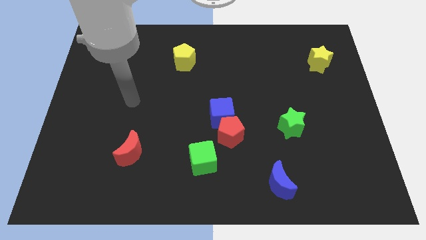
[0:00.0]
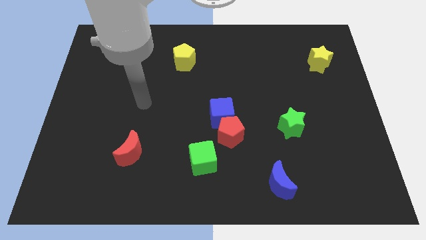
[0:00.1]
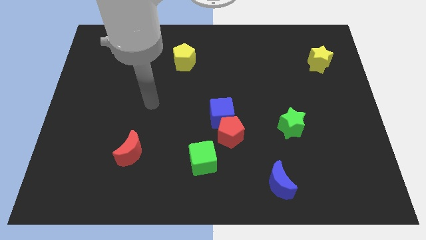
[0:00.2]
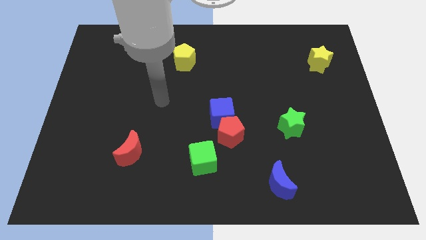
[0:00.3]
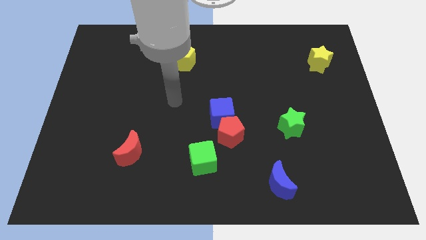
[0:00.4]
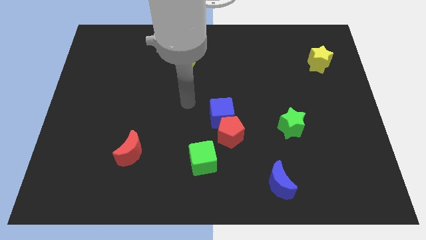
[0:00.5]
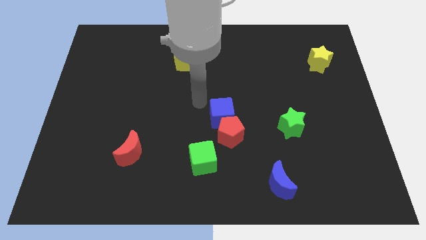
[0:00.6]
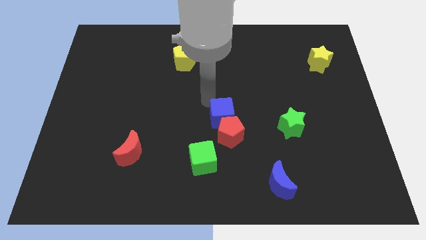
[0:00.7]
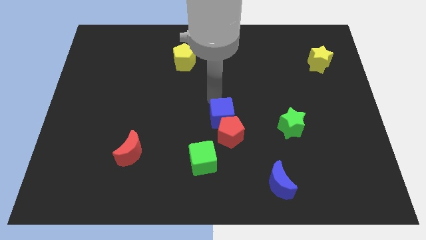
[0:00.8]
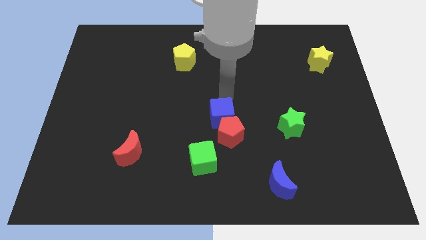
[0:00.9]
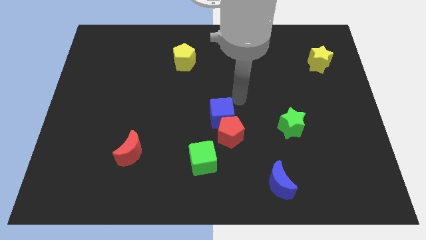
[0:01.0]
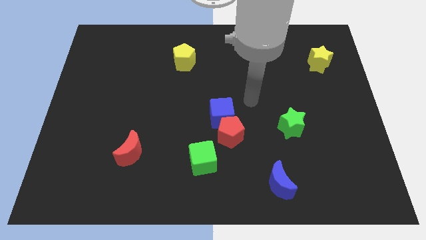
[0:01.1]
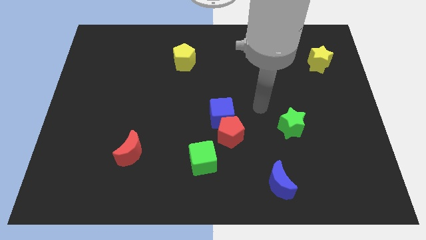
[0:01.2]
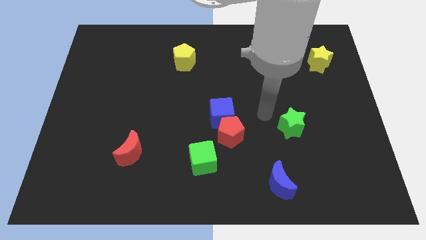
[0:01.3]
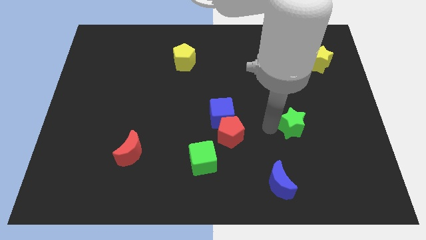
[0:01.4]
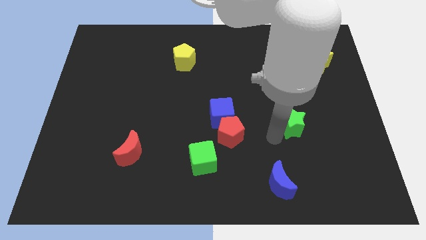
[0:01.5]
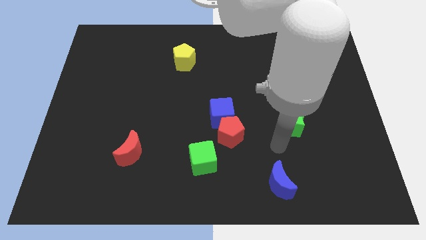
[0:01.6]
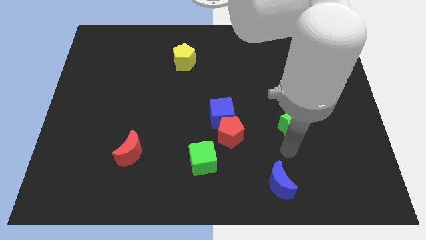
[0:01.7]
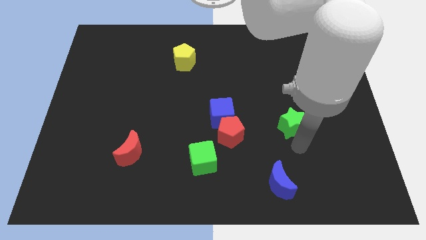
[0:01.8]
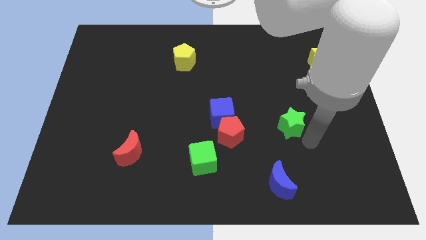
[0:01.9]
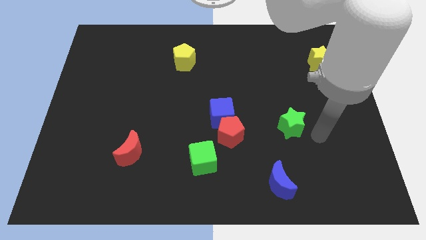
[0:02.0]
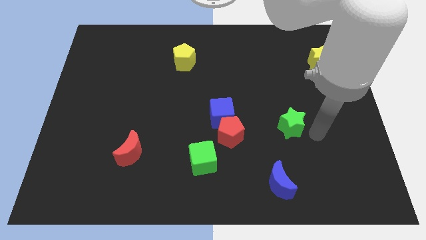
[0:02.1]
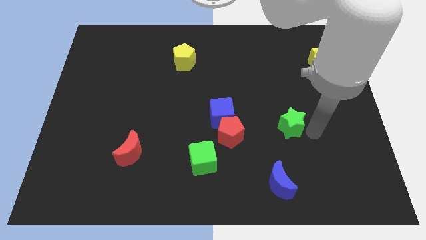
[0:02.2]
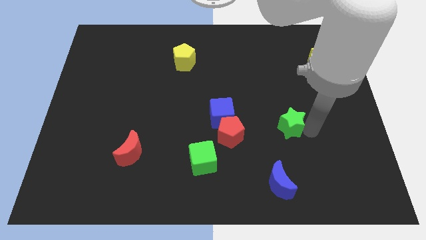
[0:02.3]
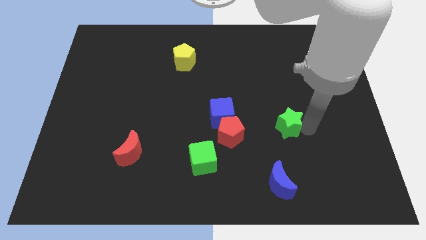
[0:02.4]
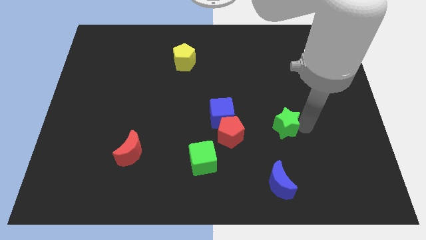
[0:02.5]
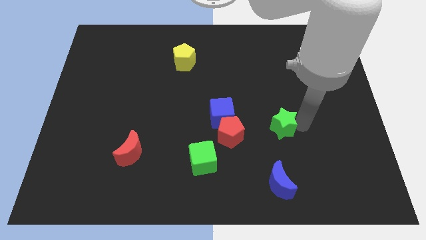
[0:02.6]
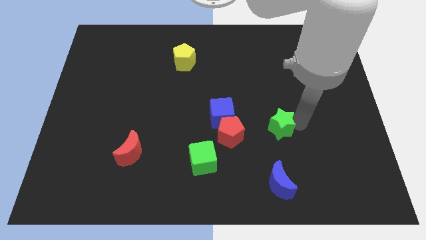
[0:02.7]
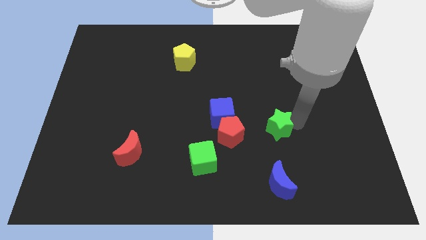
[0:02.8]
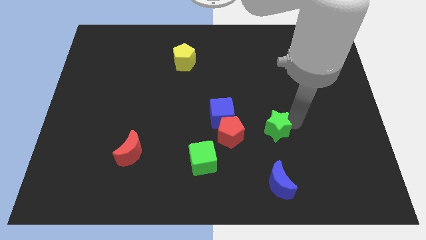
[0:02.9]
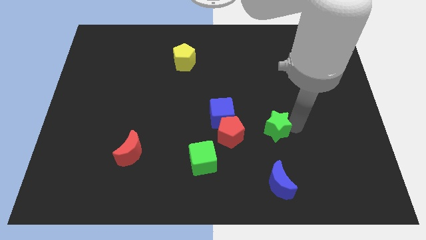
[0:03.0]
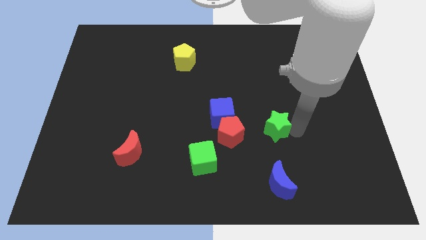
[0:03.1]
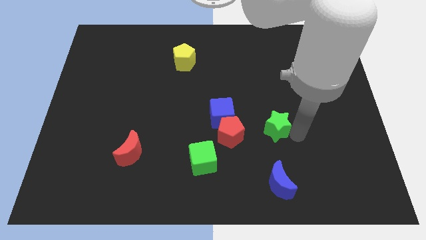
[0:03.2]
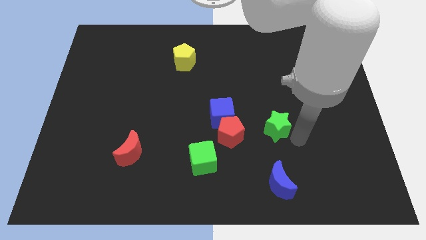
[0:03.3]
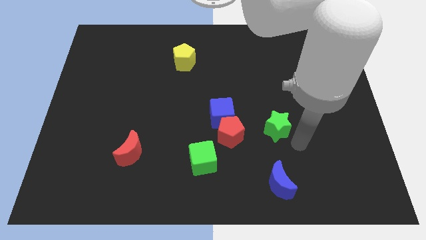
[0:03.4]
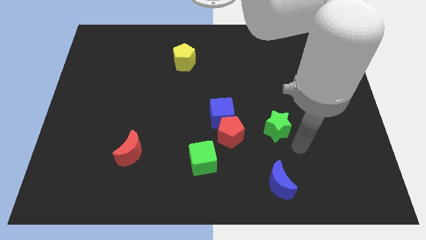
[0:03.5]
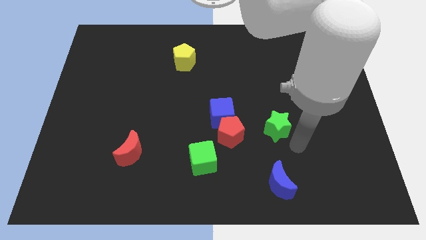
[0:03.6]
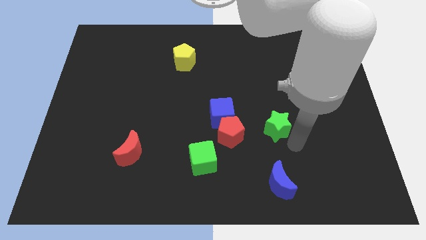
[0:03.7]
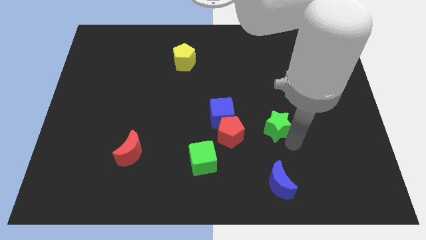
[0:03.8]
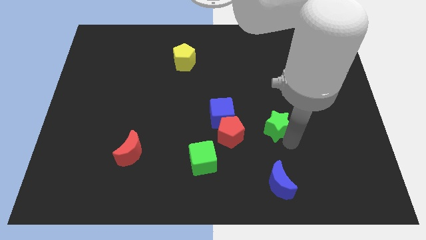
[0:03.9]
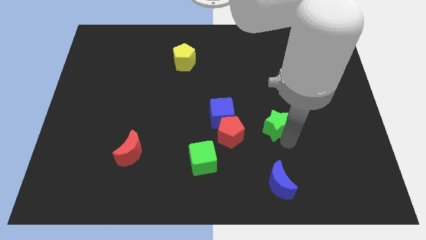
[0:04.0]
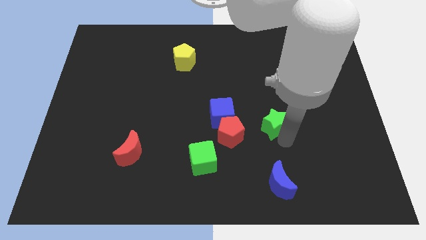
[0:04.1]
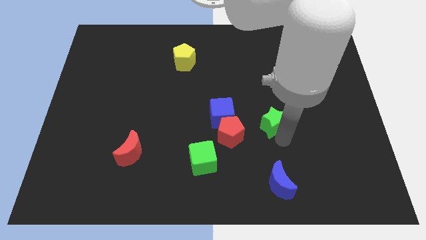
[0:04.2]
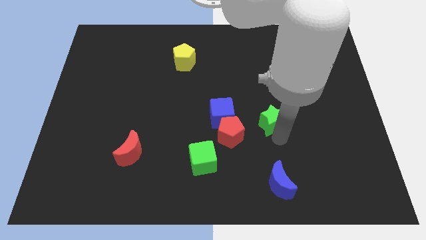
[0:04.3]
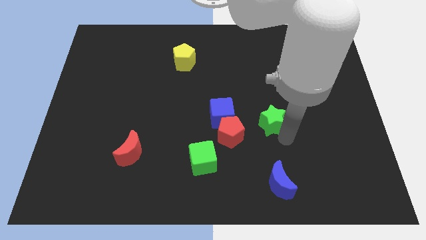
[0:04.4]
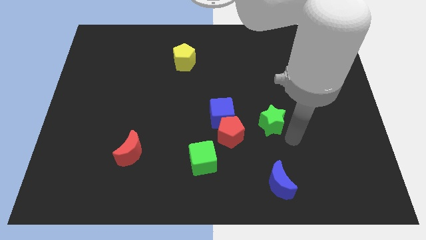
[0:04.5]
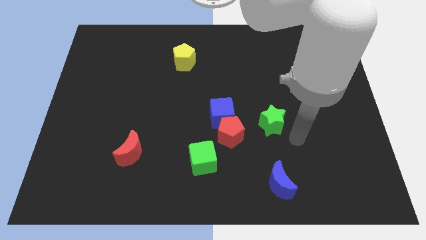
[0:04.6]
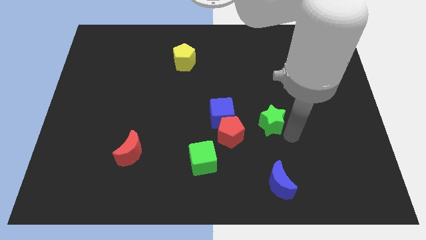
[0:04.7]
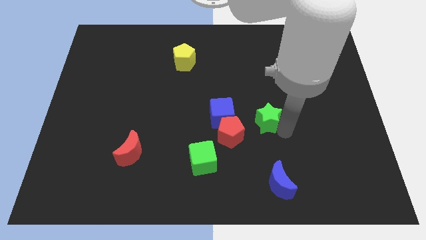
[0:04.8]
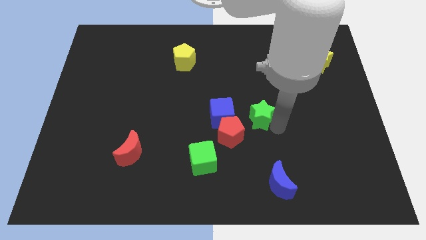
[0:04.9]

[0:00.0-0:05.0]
move the green star to the middle

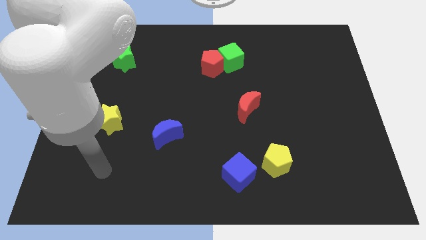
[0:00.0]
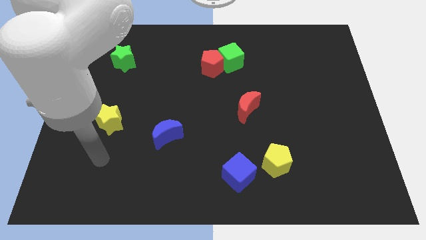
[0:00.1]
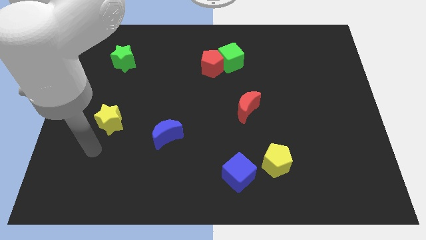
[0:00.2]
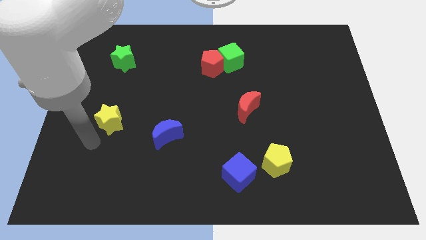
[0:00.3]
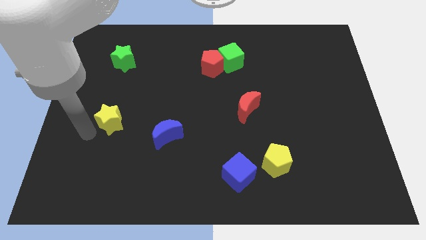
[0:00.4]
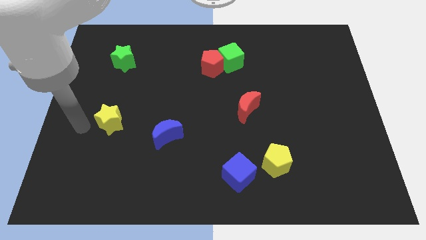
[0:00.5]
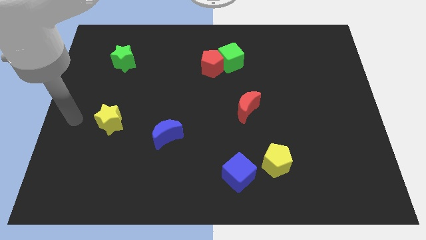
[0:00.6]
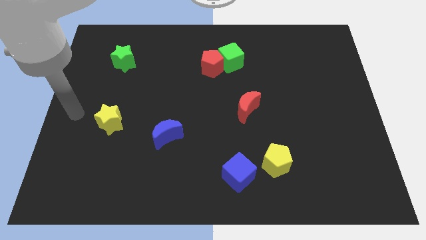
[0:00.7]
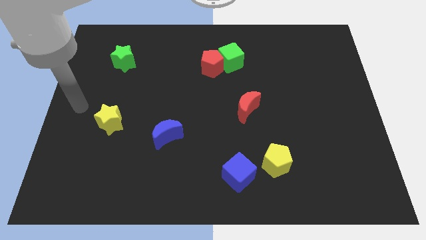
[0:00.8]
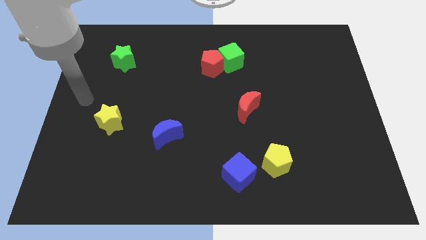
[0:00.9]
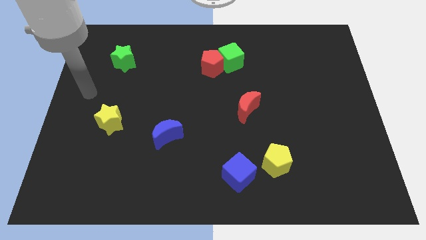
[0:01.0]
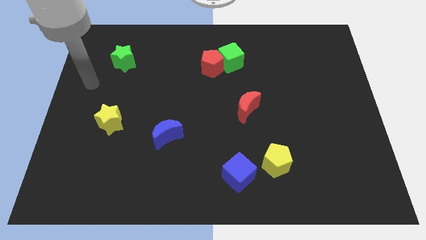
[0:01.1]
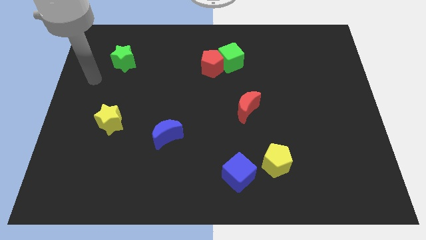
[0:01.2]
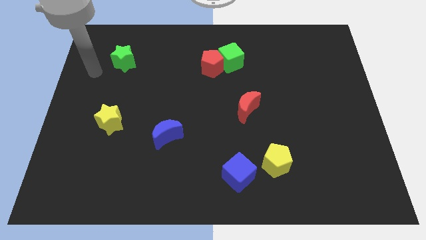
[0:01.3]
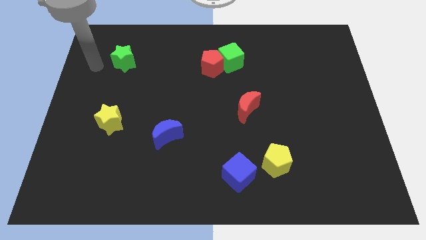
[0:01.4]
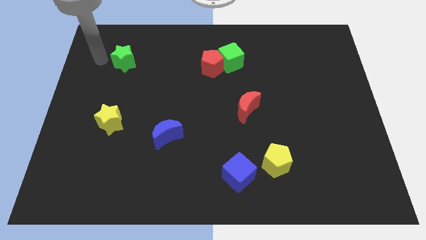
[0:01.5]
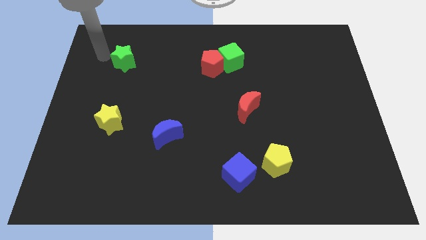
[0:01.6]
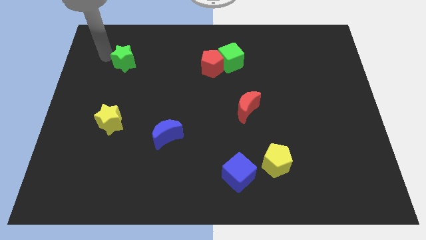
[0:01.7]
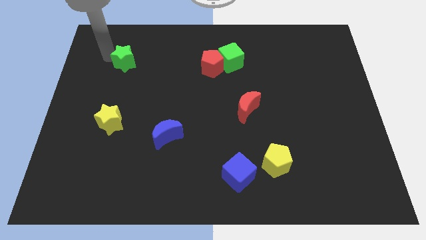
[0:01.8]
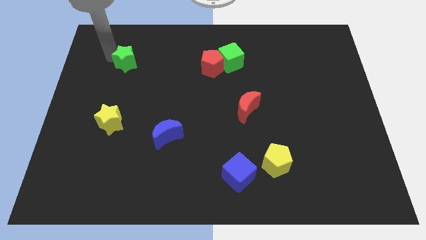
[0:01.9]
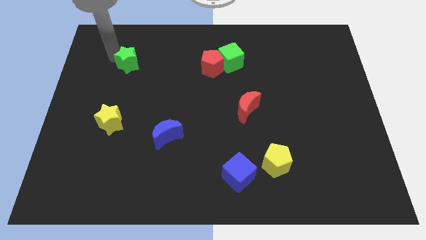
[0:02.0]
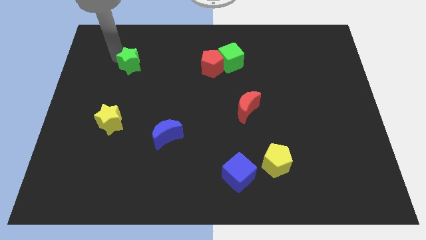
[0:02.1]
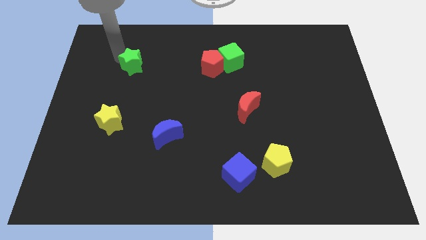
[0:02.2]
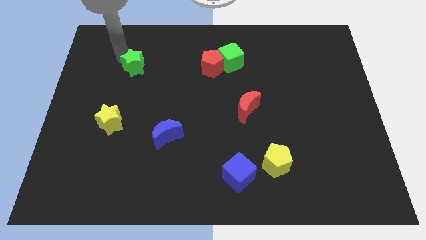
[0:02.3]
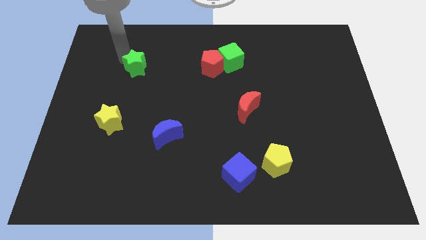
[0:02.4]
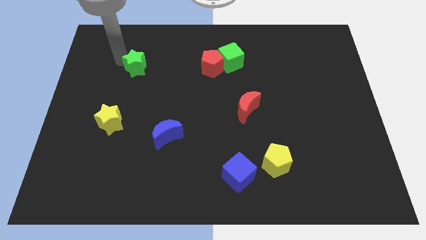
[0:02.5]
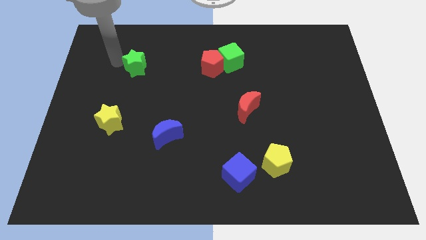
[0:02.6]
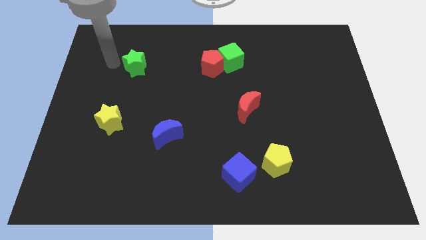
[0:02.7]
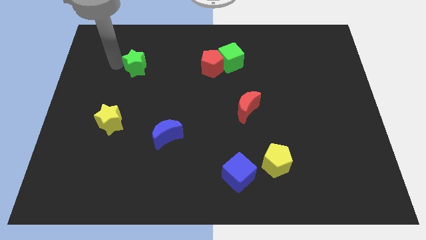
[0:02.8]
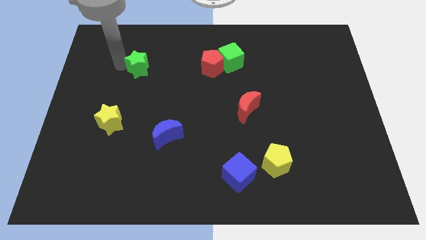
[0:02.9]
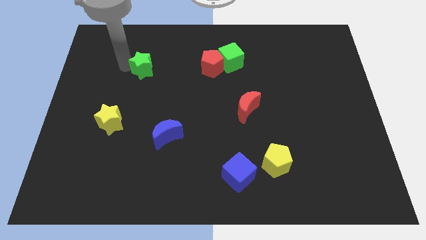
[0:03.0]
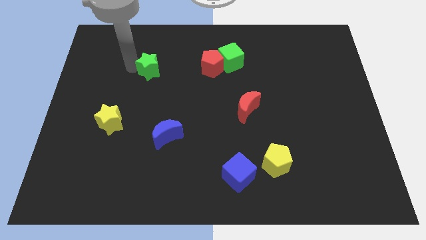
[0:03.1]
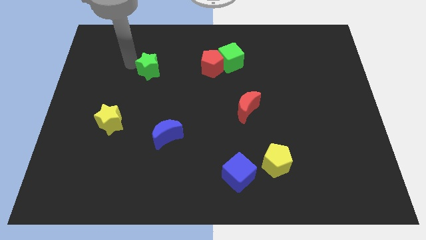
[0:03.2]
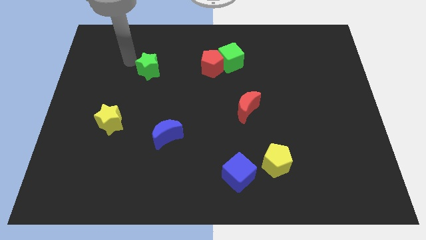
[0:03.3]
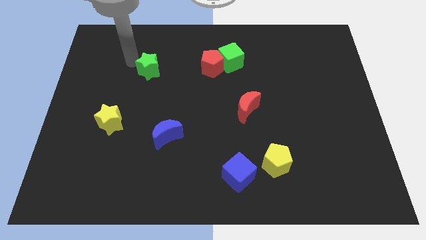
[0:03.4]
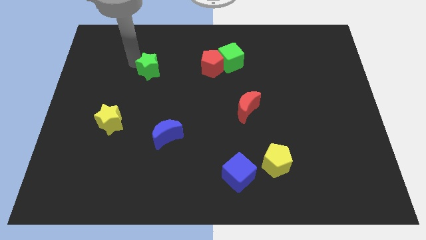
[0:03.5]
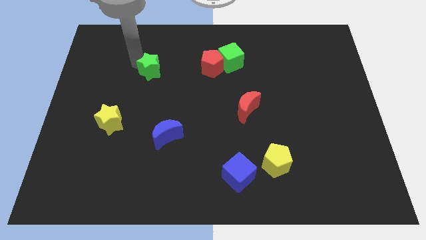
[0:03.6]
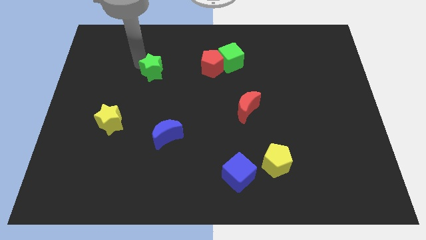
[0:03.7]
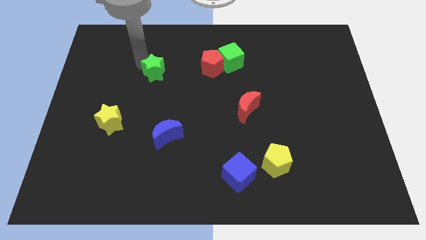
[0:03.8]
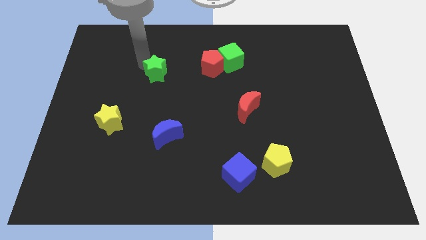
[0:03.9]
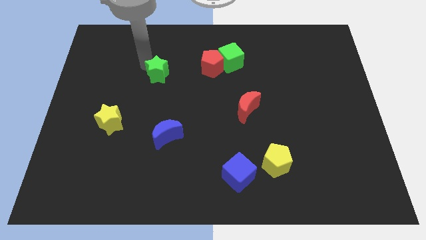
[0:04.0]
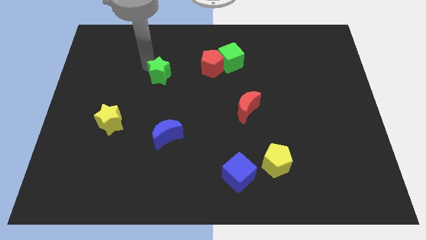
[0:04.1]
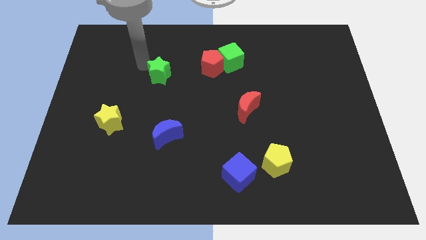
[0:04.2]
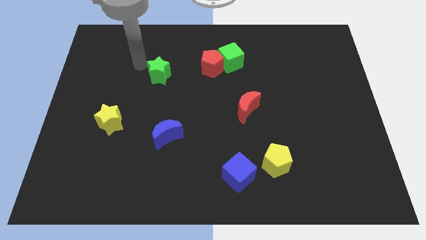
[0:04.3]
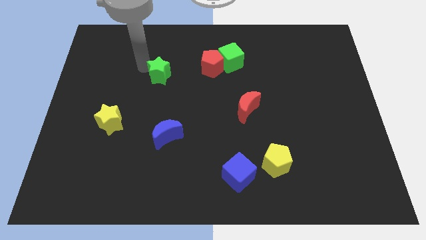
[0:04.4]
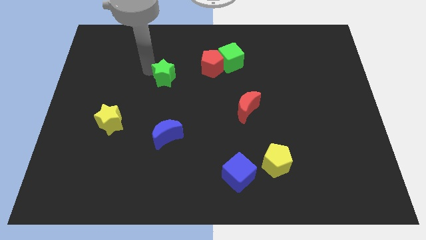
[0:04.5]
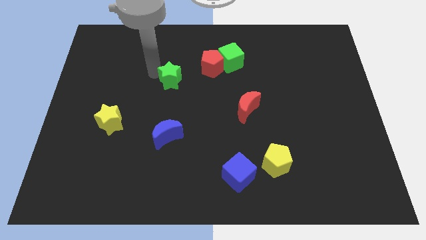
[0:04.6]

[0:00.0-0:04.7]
move the green star to the center
